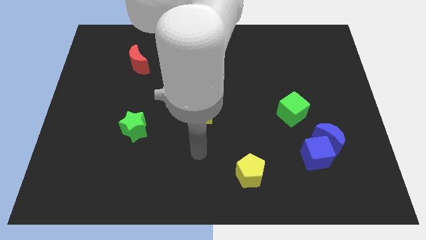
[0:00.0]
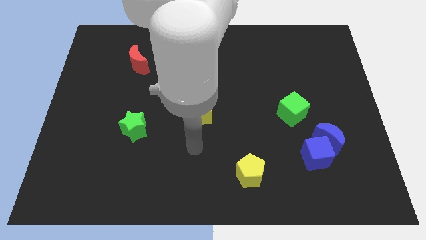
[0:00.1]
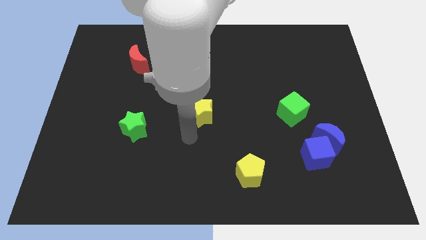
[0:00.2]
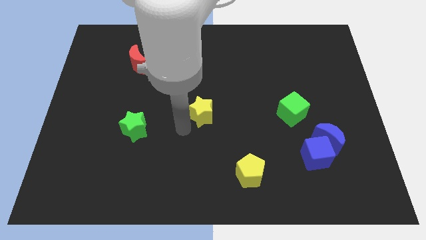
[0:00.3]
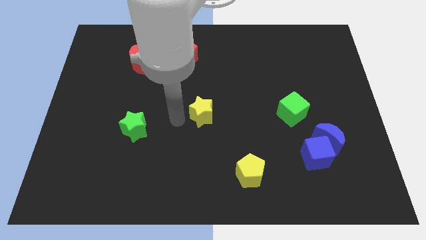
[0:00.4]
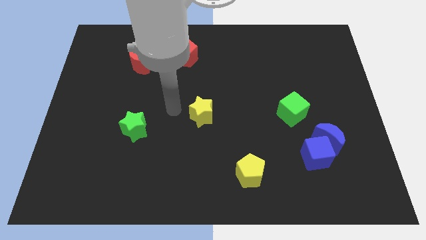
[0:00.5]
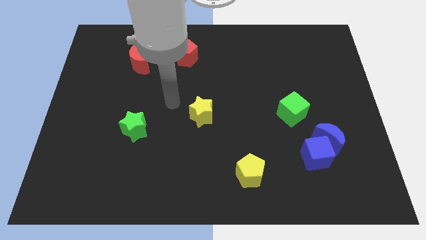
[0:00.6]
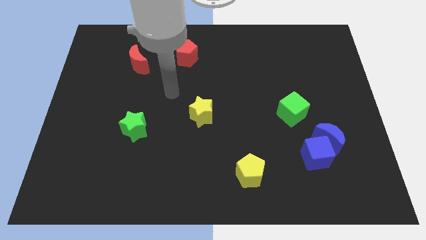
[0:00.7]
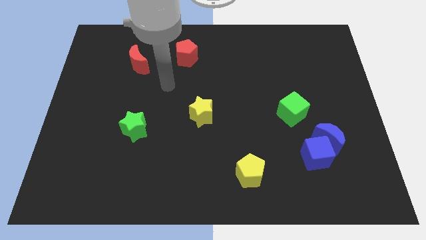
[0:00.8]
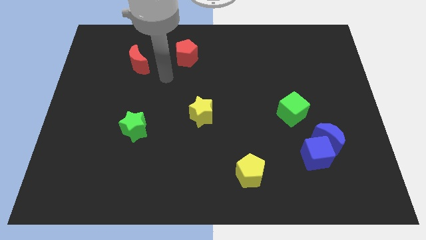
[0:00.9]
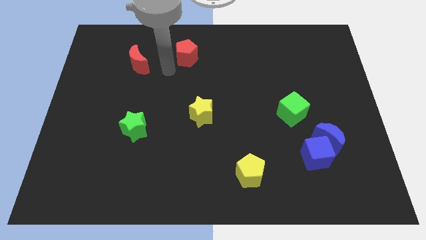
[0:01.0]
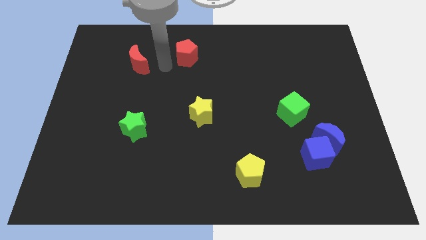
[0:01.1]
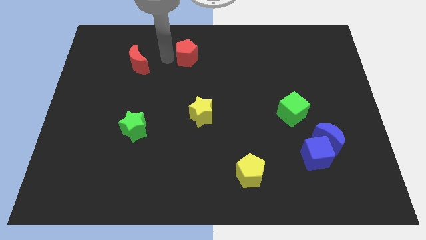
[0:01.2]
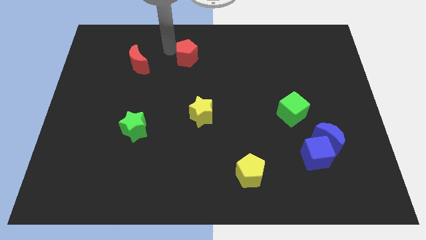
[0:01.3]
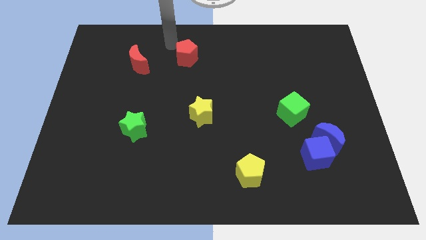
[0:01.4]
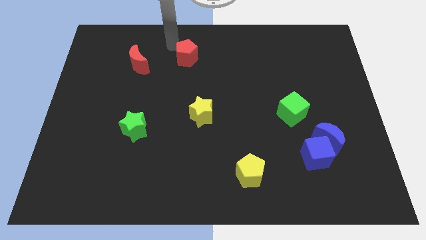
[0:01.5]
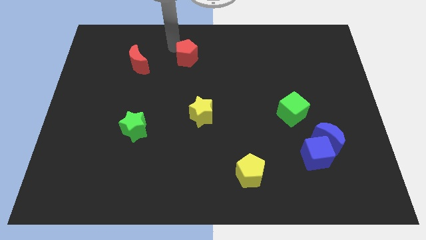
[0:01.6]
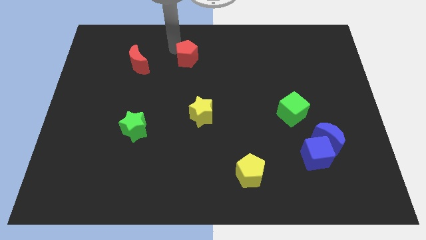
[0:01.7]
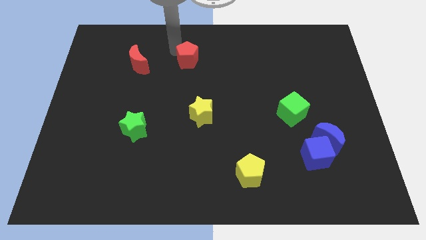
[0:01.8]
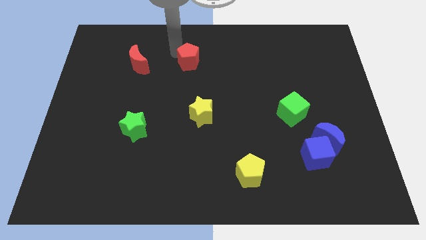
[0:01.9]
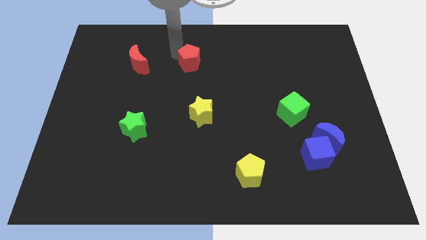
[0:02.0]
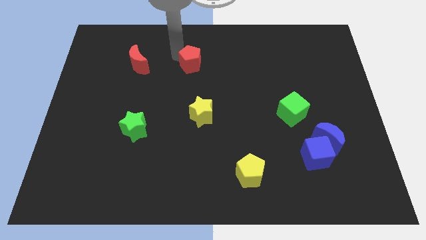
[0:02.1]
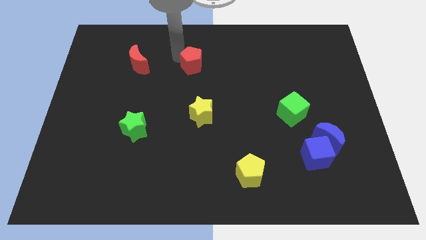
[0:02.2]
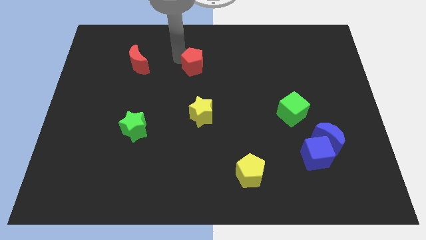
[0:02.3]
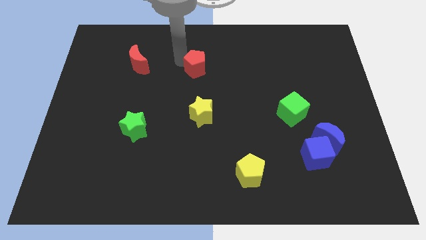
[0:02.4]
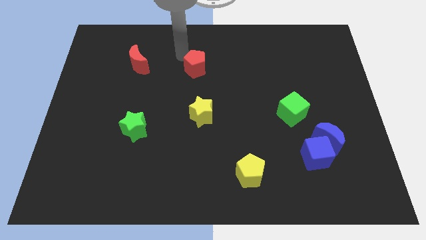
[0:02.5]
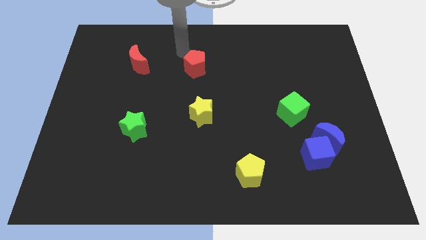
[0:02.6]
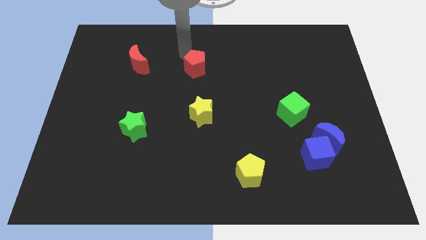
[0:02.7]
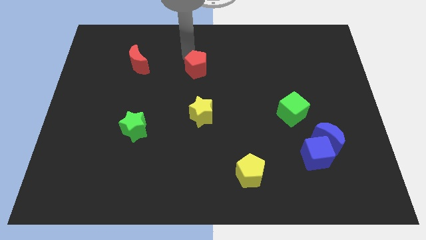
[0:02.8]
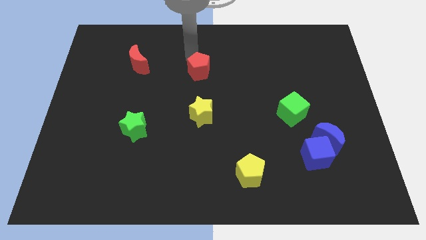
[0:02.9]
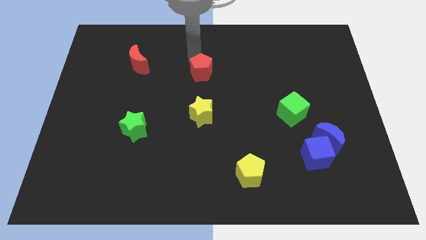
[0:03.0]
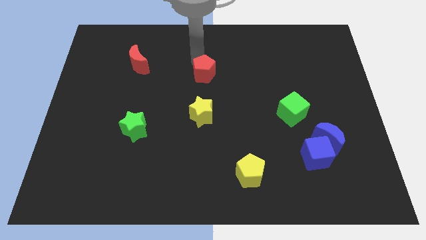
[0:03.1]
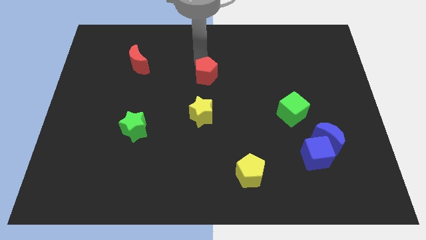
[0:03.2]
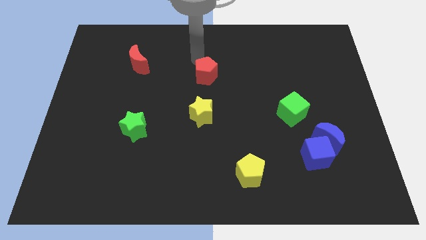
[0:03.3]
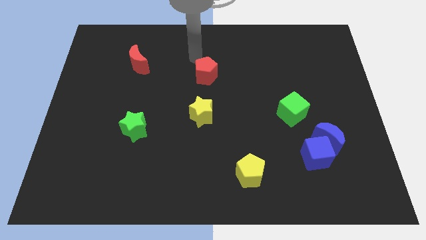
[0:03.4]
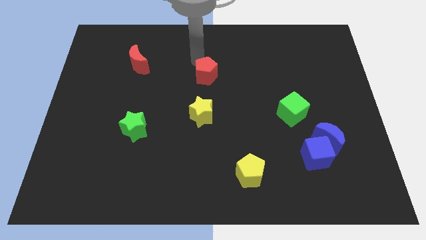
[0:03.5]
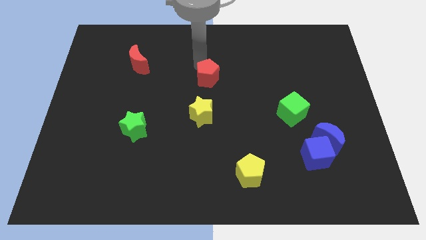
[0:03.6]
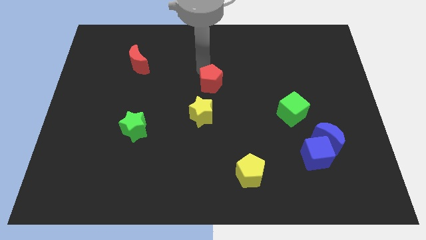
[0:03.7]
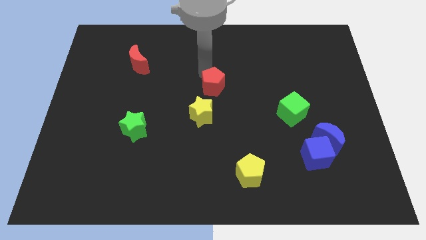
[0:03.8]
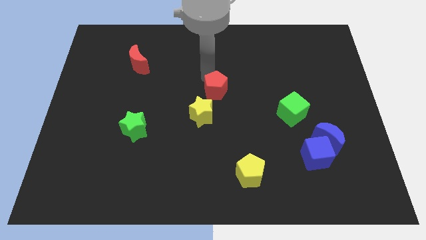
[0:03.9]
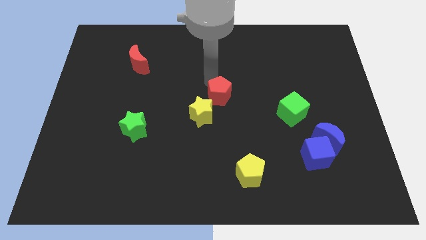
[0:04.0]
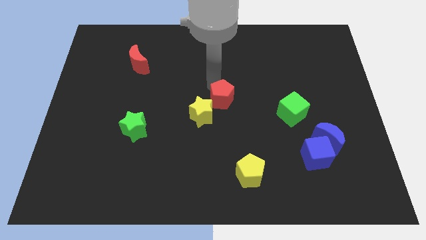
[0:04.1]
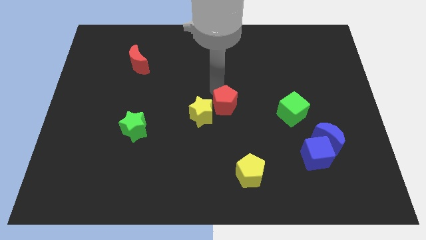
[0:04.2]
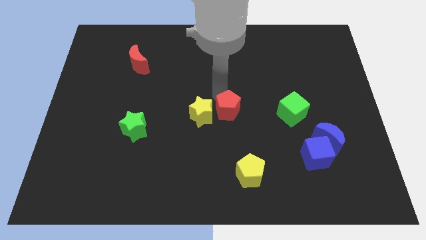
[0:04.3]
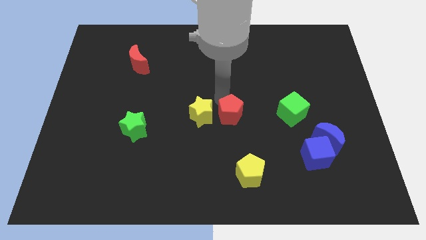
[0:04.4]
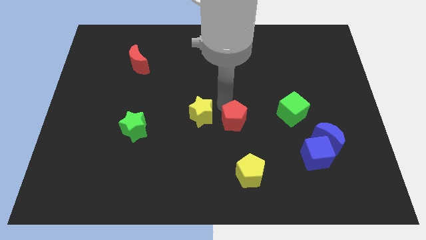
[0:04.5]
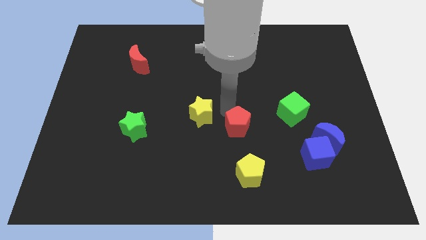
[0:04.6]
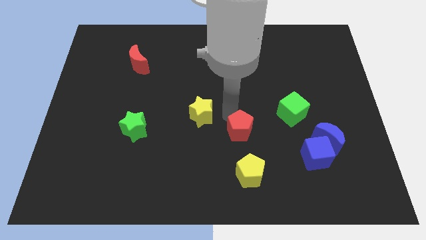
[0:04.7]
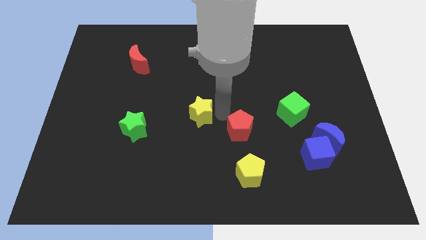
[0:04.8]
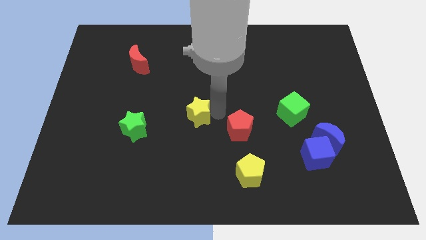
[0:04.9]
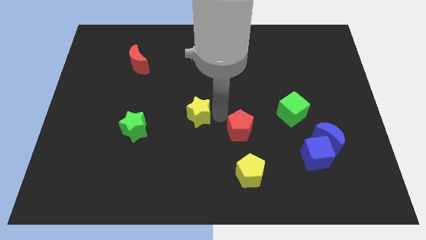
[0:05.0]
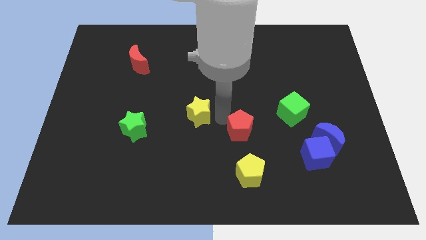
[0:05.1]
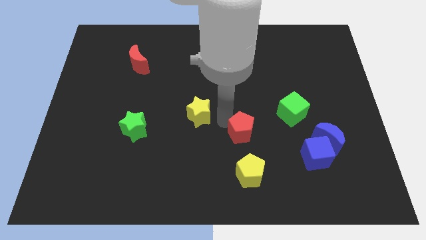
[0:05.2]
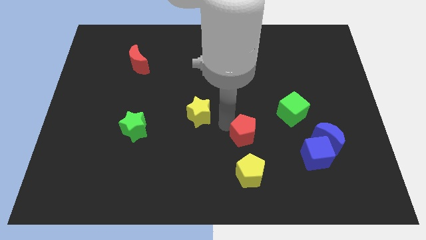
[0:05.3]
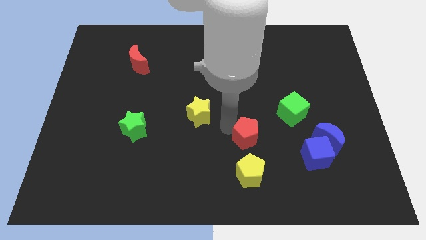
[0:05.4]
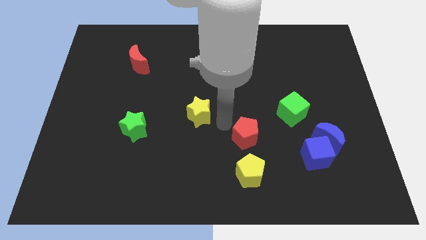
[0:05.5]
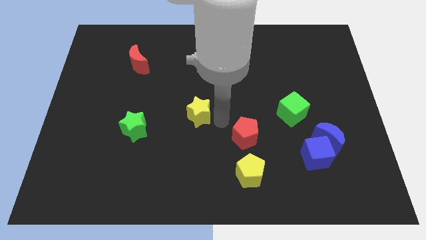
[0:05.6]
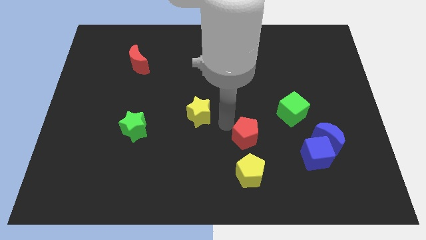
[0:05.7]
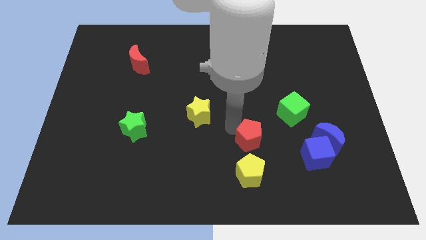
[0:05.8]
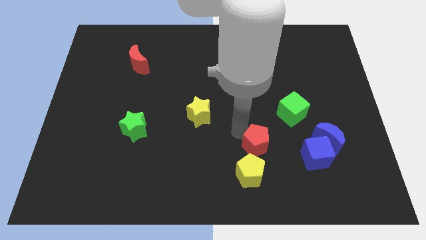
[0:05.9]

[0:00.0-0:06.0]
slide the red pentagon diagonally up and to the right of the yellow pentagon

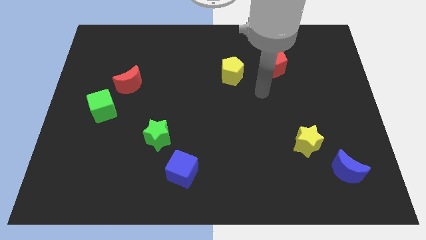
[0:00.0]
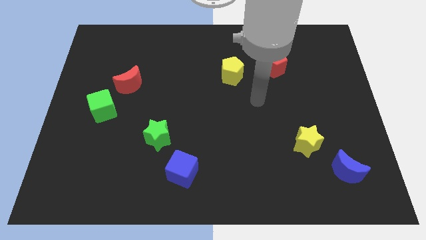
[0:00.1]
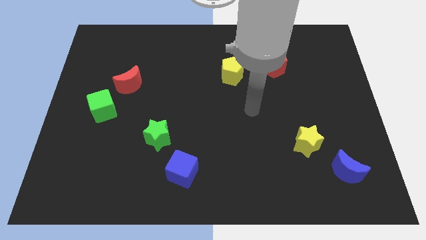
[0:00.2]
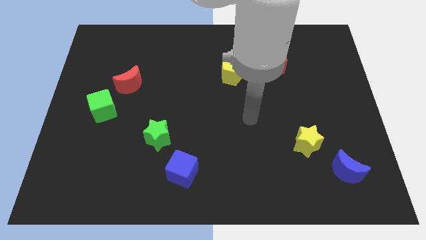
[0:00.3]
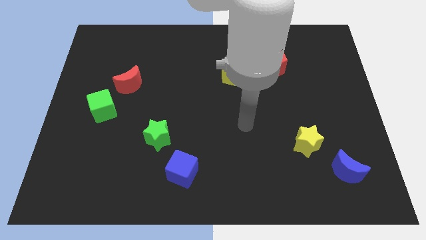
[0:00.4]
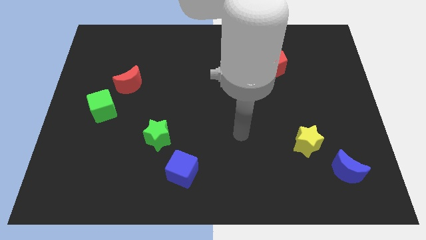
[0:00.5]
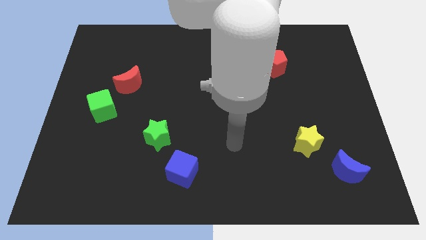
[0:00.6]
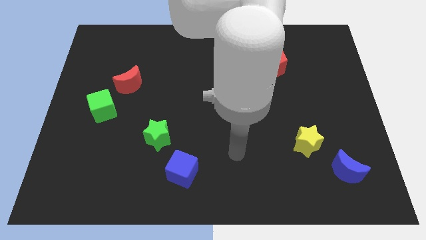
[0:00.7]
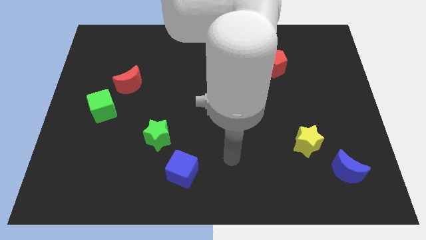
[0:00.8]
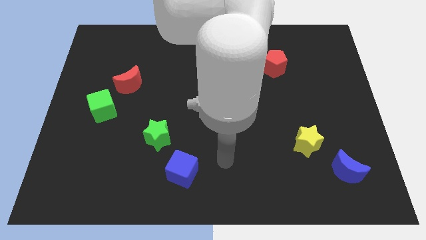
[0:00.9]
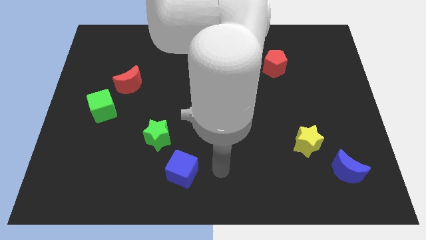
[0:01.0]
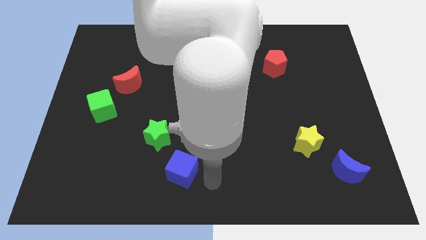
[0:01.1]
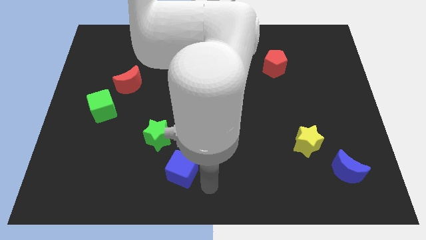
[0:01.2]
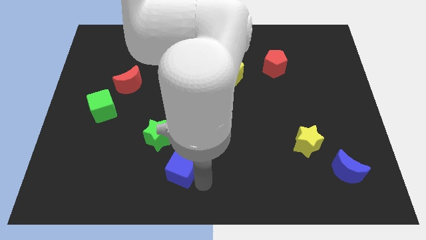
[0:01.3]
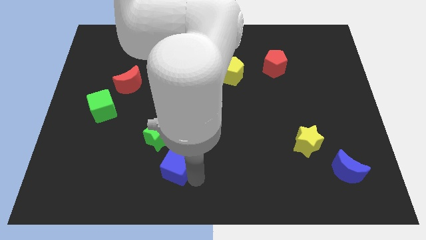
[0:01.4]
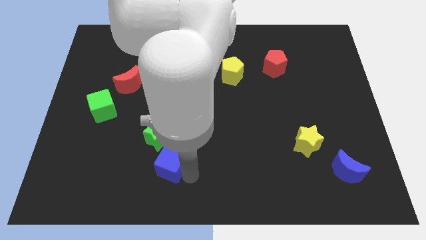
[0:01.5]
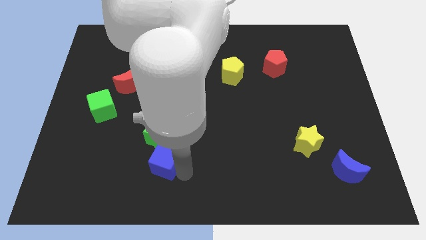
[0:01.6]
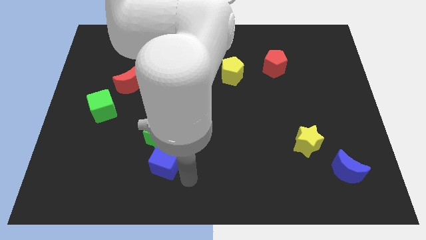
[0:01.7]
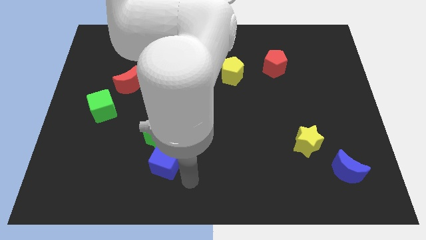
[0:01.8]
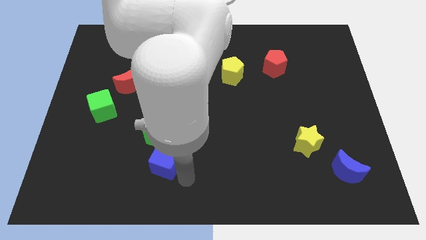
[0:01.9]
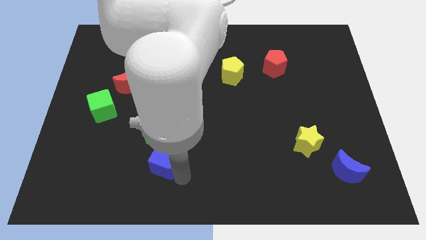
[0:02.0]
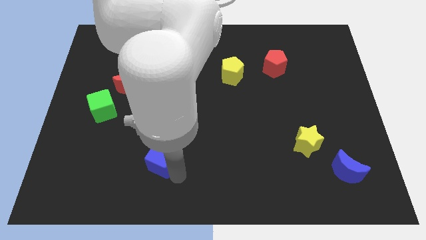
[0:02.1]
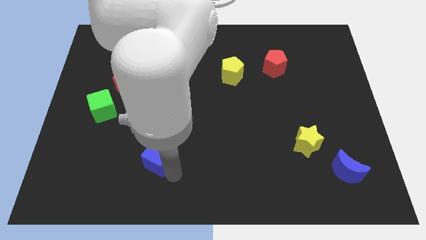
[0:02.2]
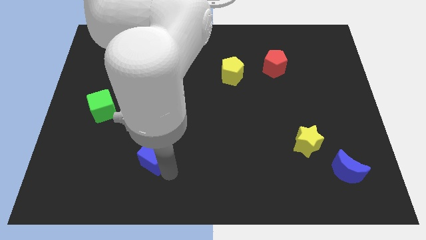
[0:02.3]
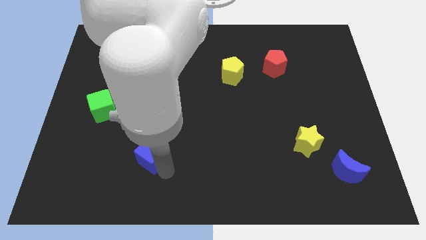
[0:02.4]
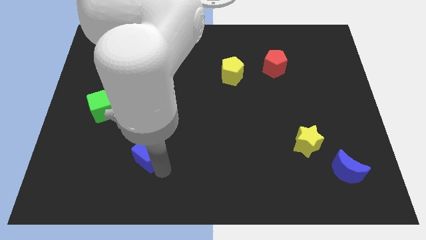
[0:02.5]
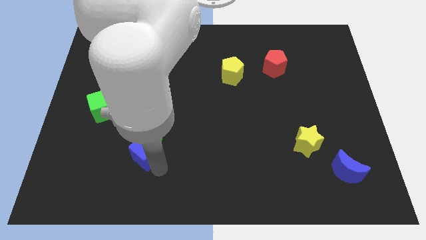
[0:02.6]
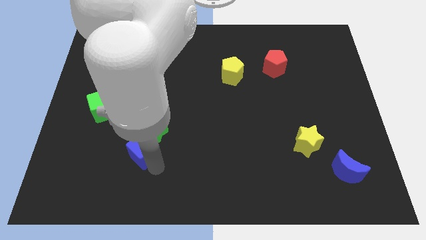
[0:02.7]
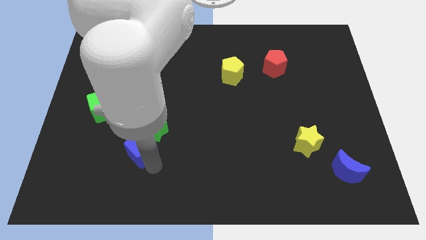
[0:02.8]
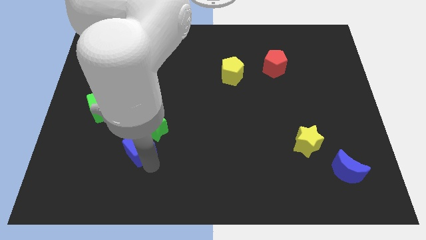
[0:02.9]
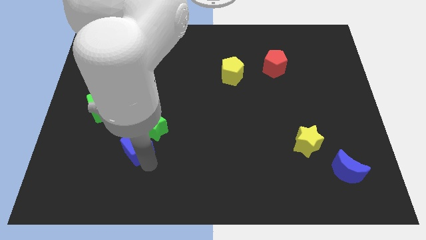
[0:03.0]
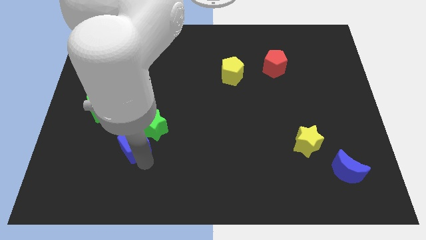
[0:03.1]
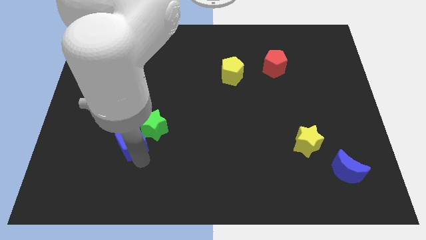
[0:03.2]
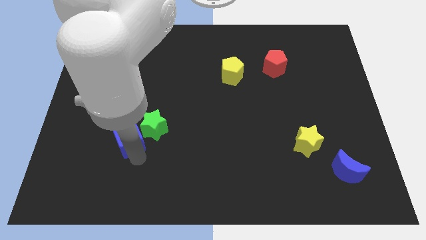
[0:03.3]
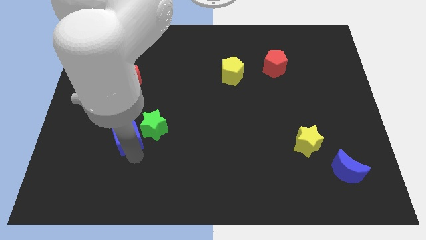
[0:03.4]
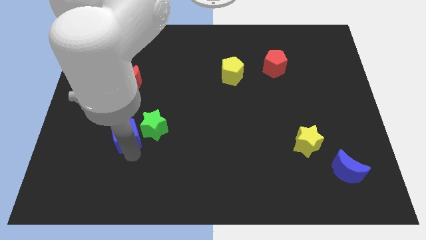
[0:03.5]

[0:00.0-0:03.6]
move the blue cube to the bottom side of the red moon
